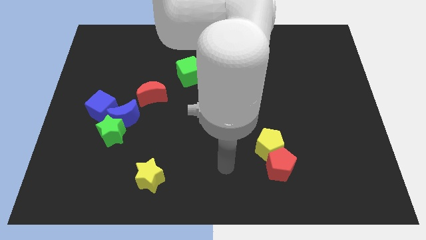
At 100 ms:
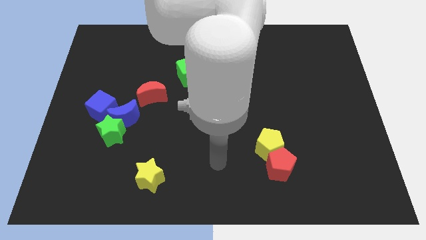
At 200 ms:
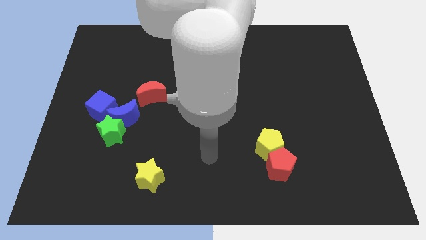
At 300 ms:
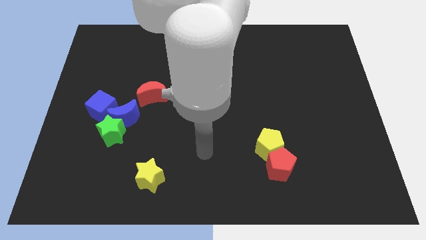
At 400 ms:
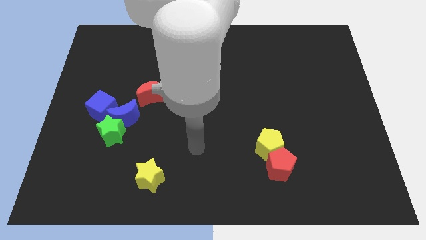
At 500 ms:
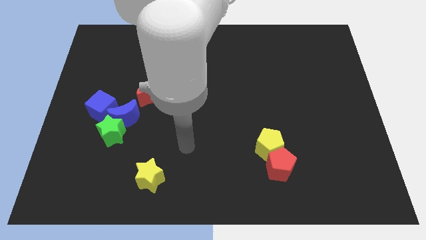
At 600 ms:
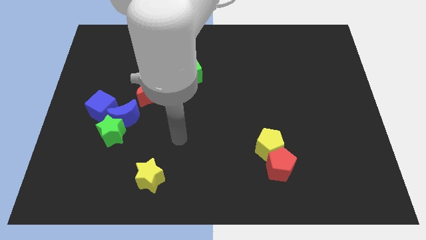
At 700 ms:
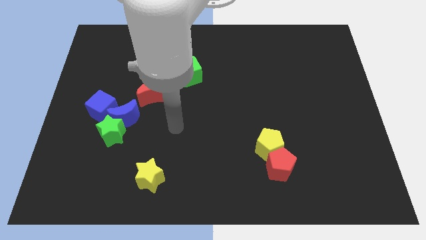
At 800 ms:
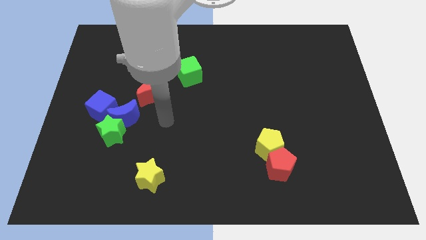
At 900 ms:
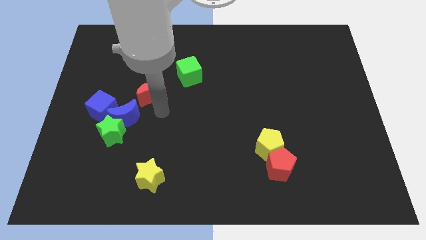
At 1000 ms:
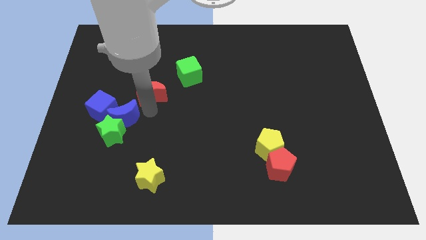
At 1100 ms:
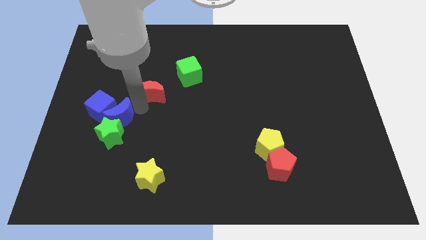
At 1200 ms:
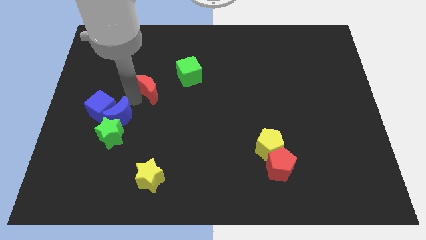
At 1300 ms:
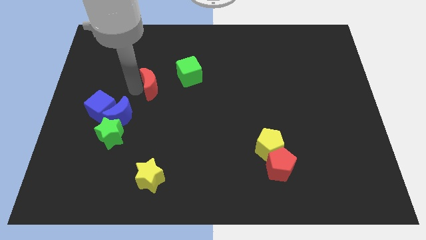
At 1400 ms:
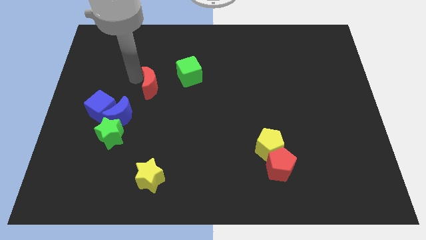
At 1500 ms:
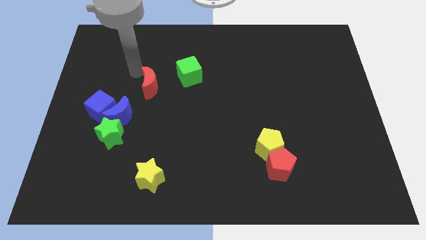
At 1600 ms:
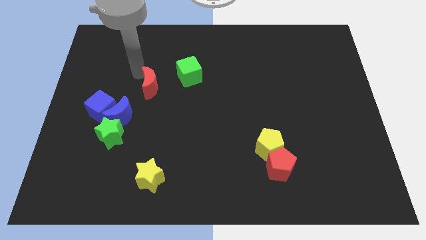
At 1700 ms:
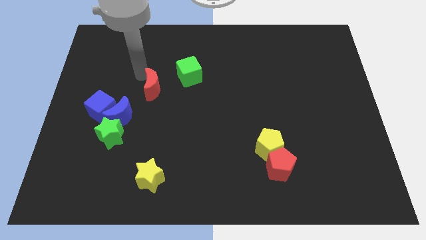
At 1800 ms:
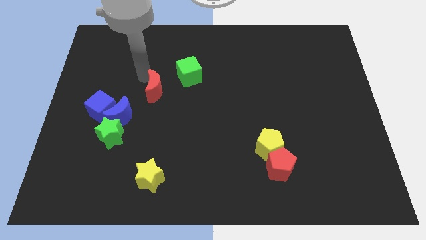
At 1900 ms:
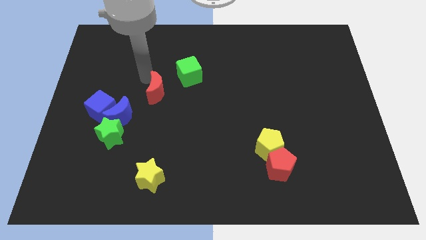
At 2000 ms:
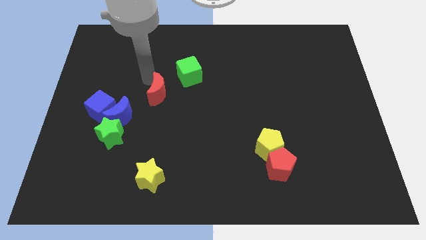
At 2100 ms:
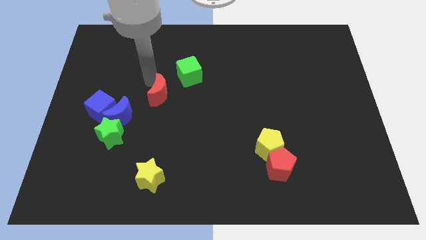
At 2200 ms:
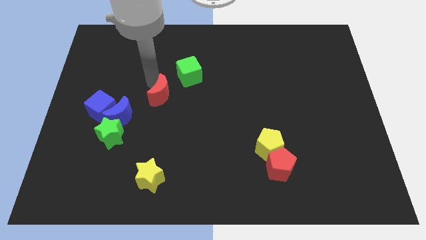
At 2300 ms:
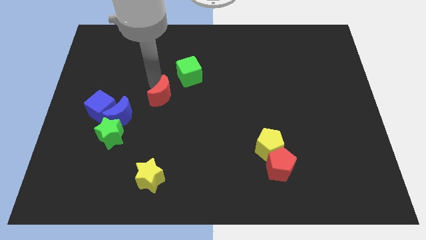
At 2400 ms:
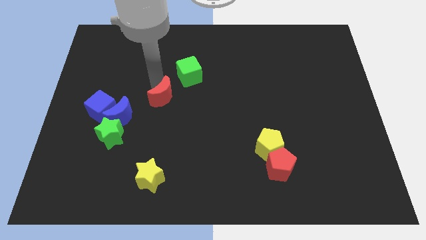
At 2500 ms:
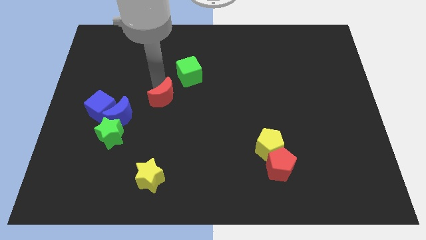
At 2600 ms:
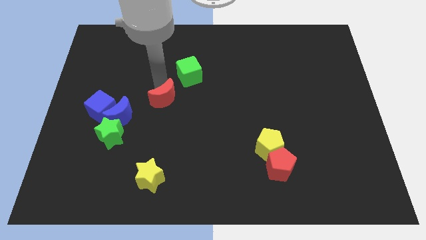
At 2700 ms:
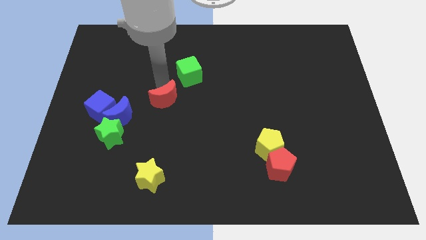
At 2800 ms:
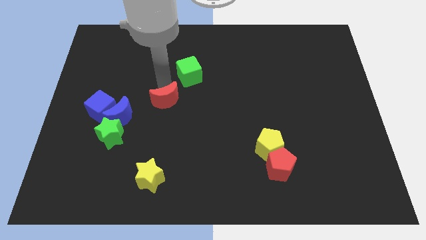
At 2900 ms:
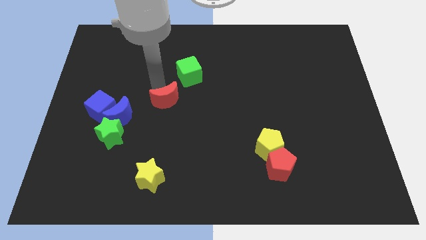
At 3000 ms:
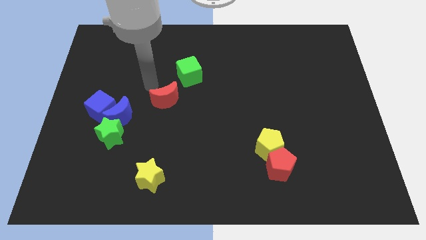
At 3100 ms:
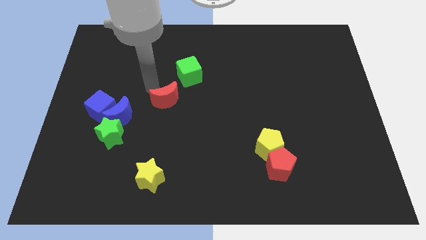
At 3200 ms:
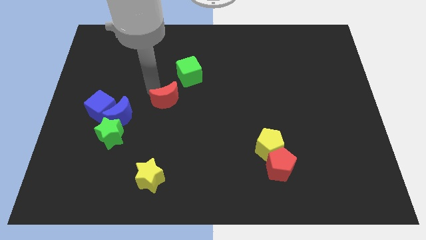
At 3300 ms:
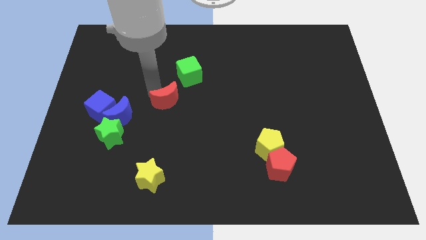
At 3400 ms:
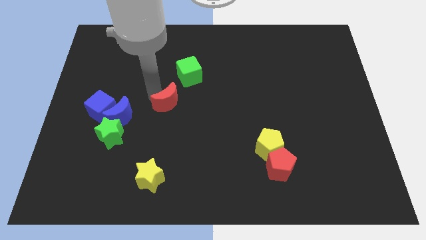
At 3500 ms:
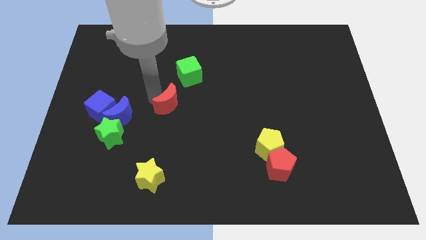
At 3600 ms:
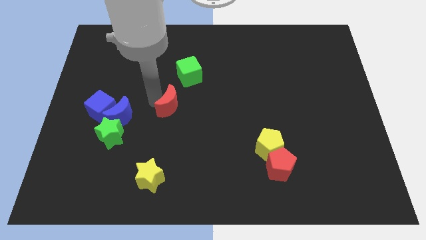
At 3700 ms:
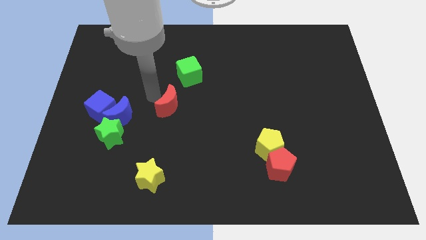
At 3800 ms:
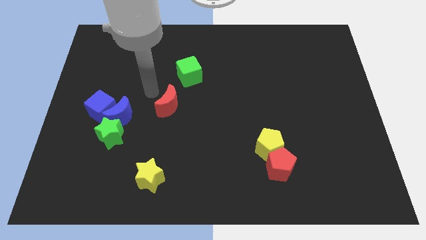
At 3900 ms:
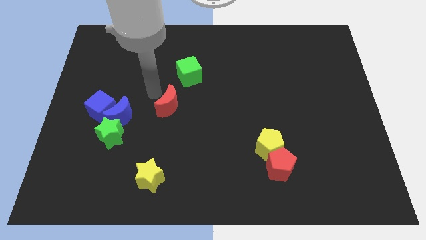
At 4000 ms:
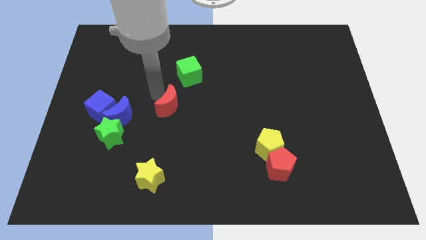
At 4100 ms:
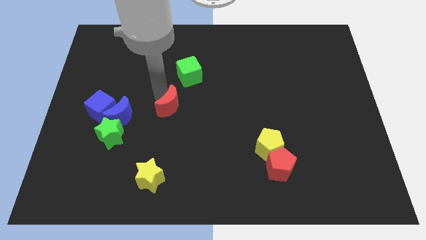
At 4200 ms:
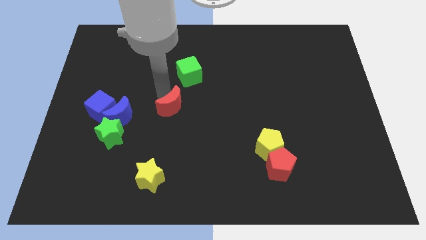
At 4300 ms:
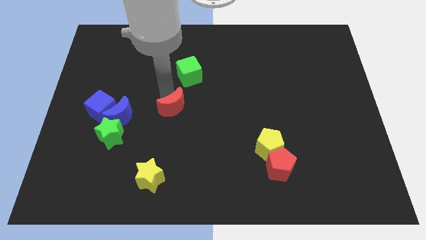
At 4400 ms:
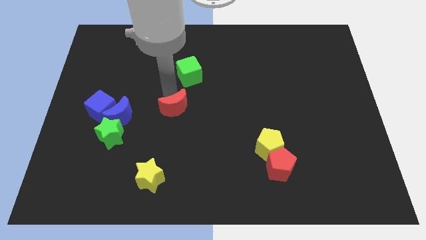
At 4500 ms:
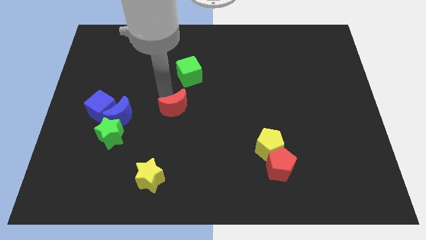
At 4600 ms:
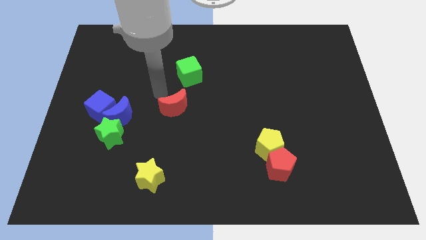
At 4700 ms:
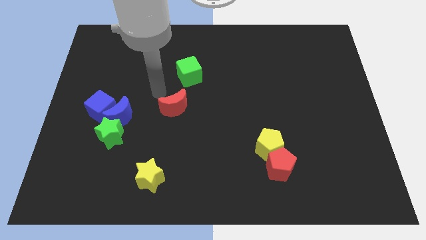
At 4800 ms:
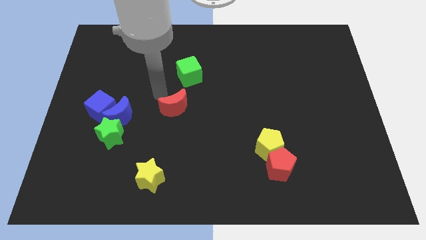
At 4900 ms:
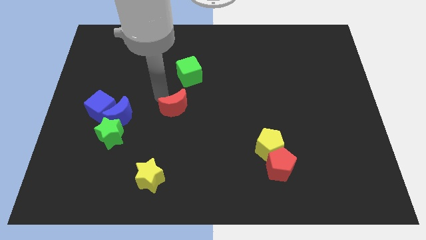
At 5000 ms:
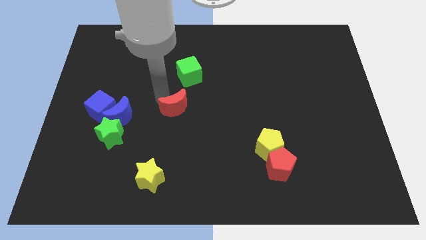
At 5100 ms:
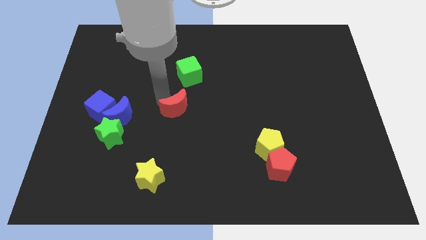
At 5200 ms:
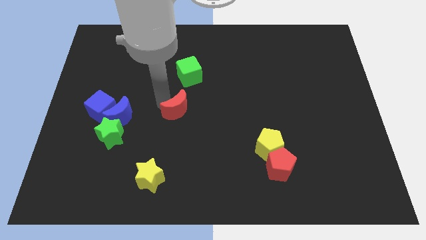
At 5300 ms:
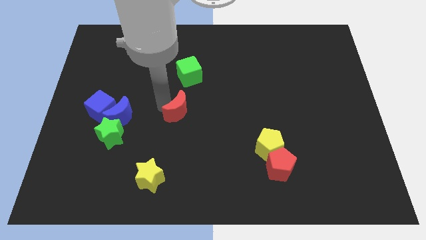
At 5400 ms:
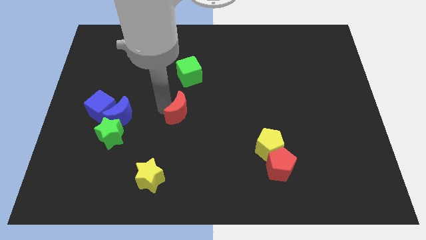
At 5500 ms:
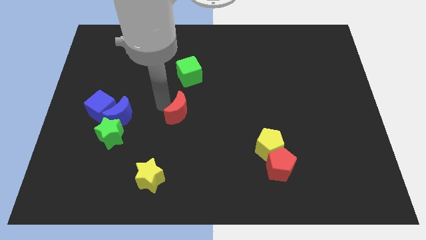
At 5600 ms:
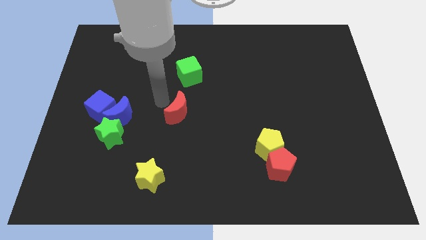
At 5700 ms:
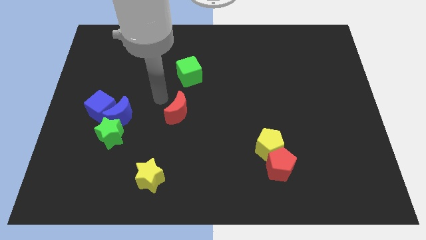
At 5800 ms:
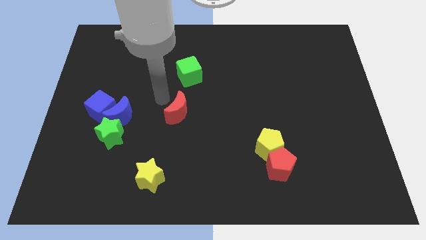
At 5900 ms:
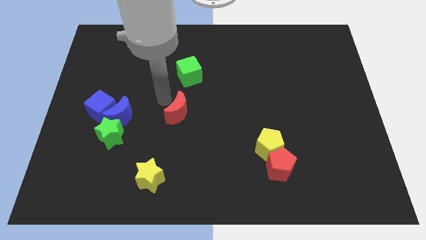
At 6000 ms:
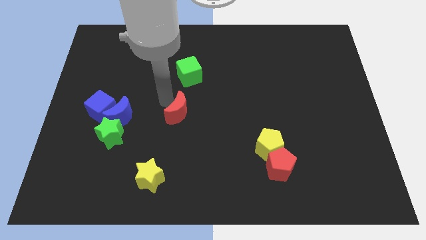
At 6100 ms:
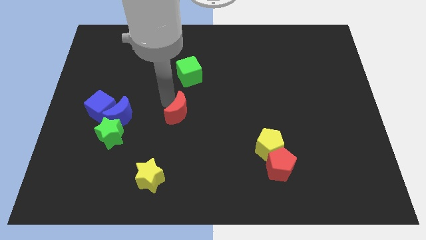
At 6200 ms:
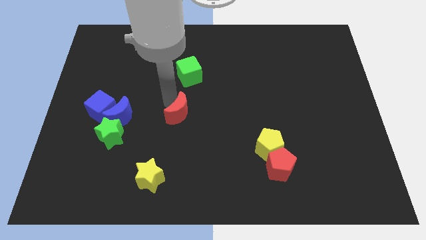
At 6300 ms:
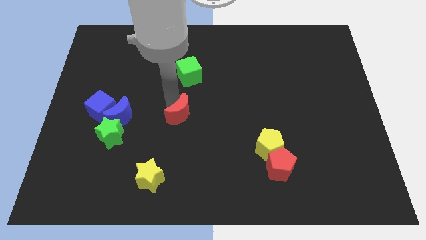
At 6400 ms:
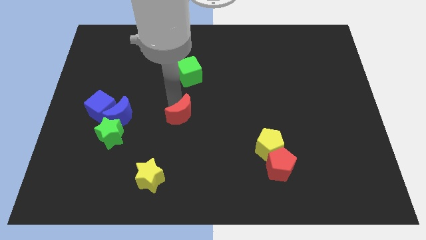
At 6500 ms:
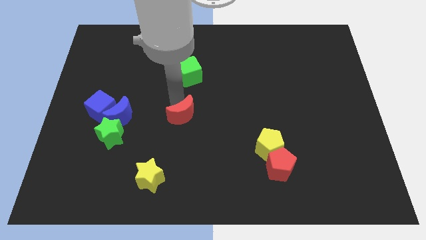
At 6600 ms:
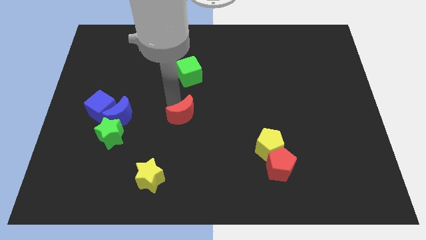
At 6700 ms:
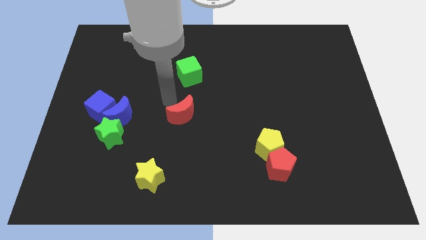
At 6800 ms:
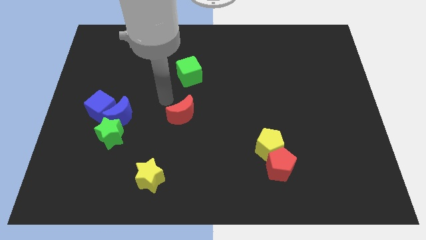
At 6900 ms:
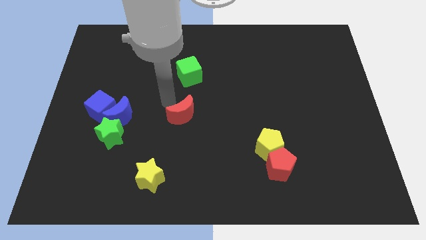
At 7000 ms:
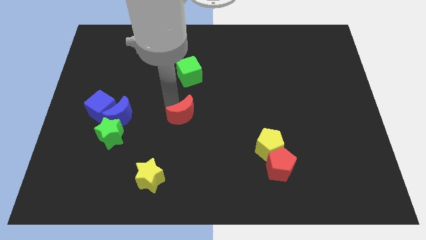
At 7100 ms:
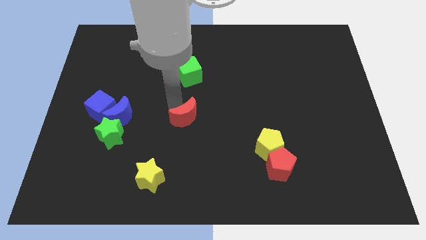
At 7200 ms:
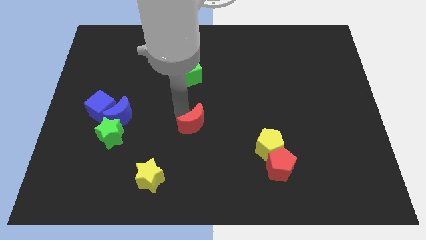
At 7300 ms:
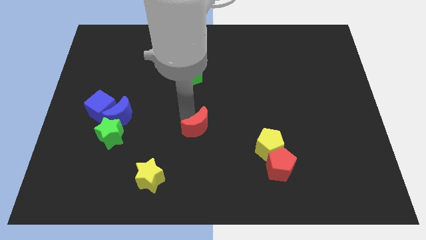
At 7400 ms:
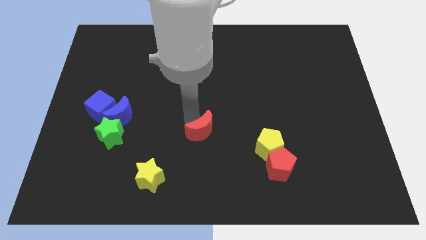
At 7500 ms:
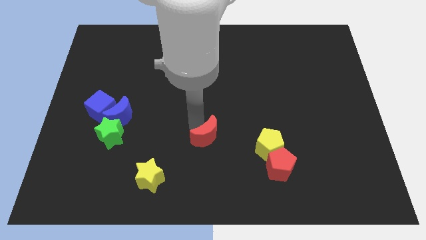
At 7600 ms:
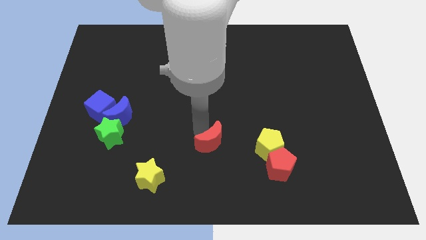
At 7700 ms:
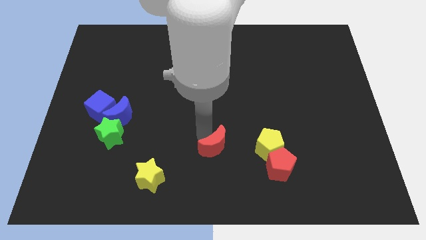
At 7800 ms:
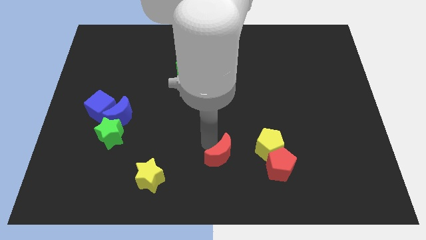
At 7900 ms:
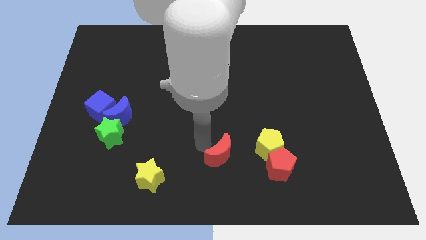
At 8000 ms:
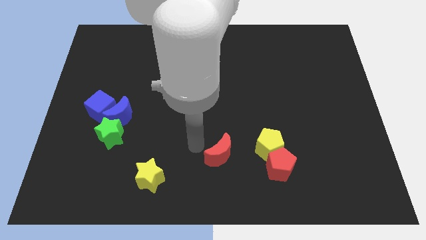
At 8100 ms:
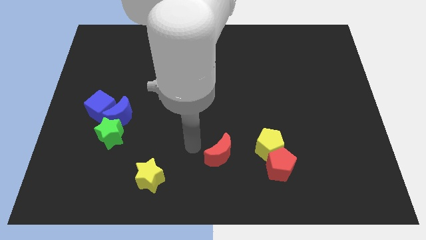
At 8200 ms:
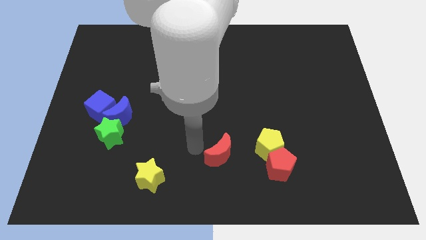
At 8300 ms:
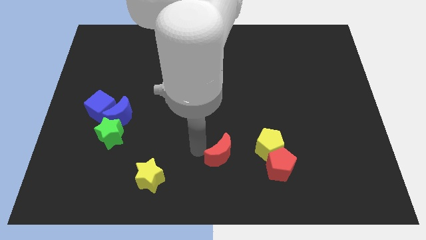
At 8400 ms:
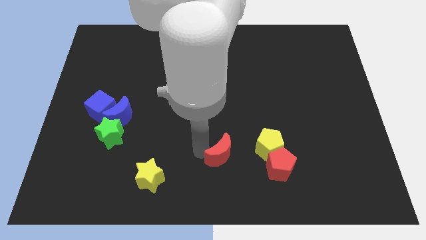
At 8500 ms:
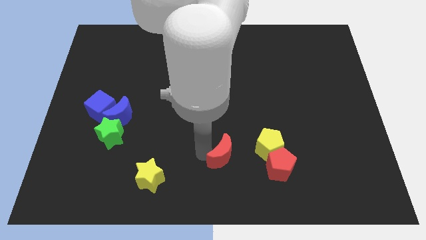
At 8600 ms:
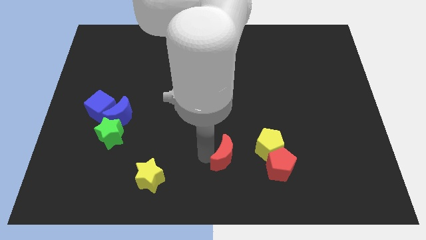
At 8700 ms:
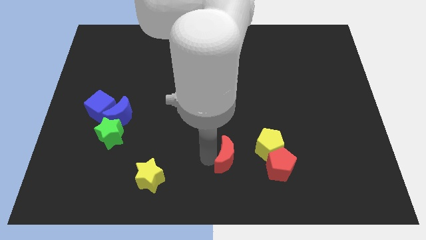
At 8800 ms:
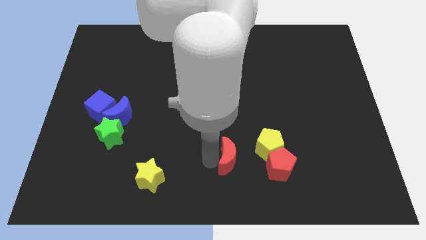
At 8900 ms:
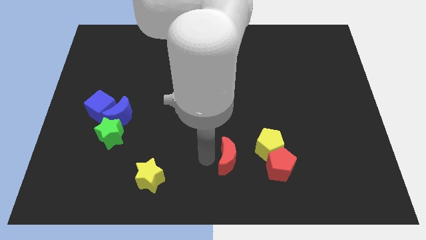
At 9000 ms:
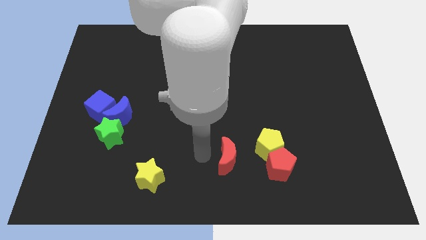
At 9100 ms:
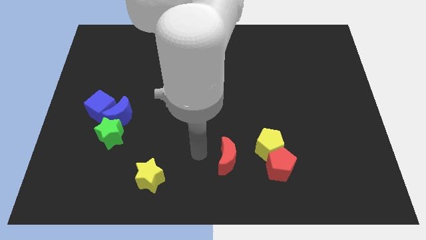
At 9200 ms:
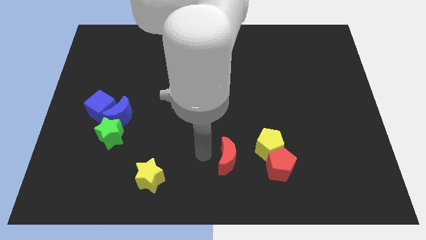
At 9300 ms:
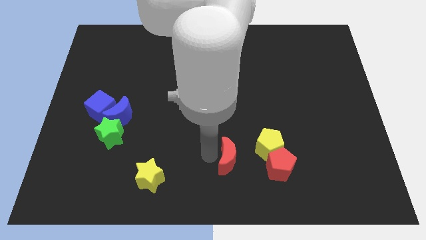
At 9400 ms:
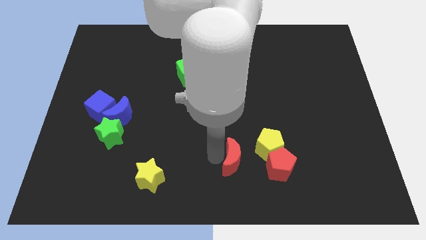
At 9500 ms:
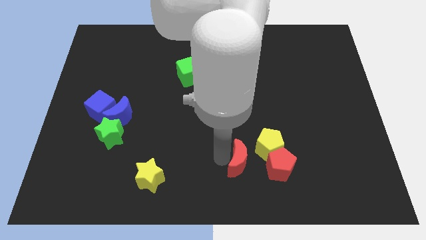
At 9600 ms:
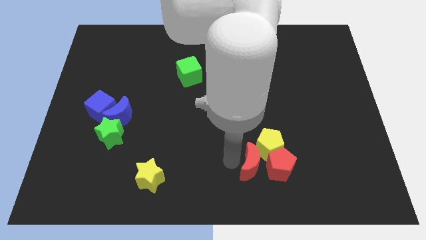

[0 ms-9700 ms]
slide the red moon towards the red pentagon
